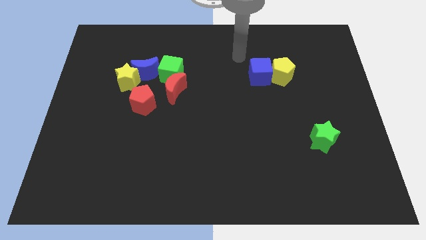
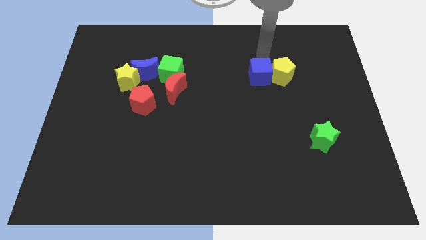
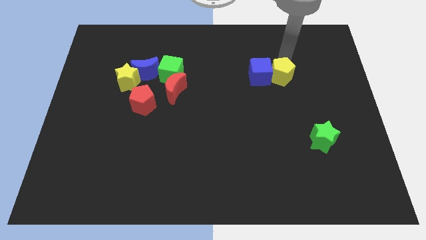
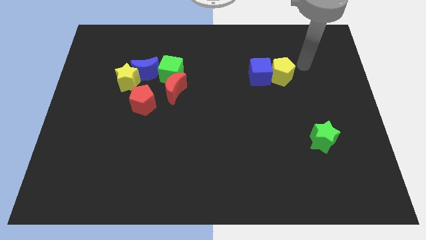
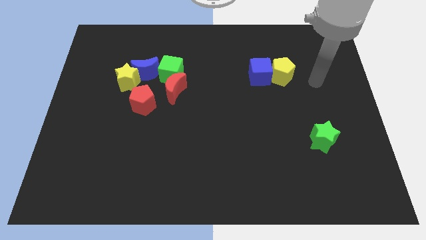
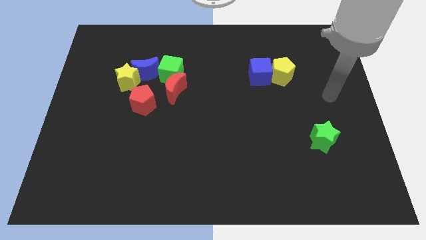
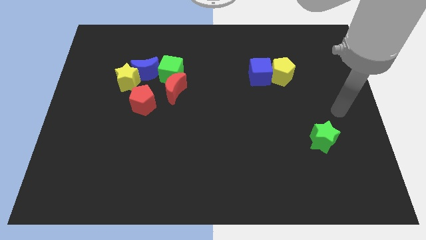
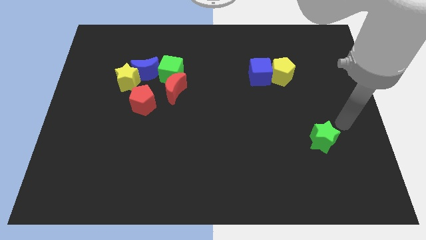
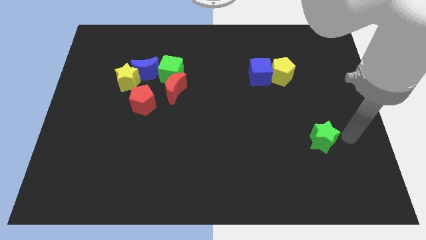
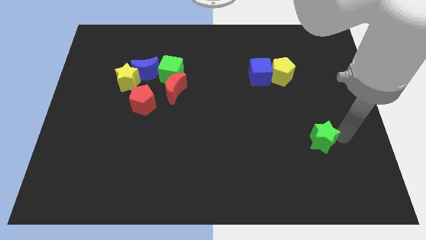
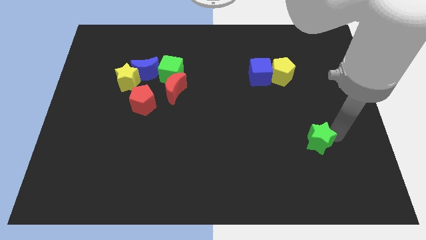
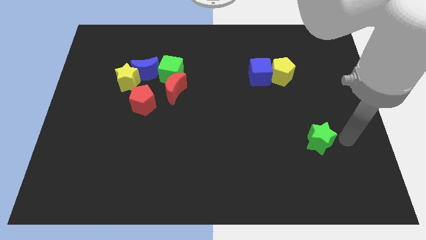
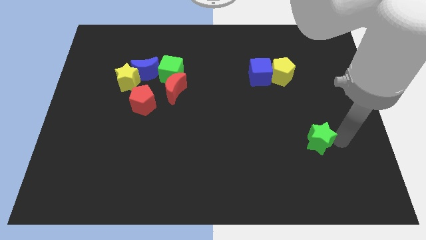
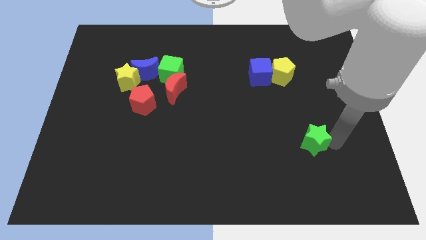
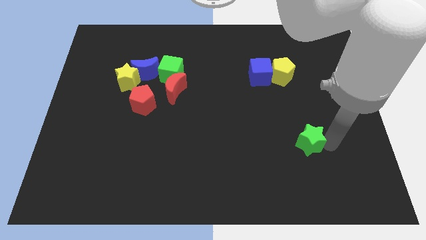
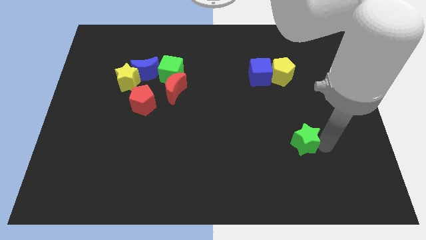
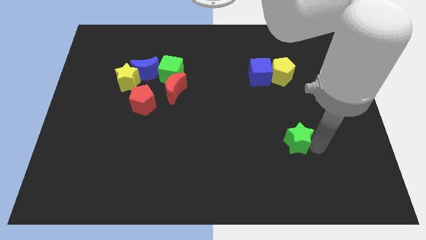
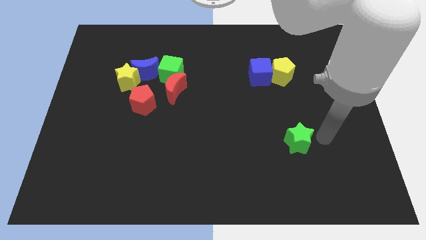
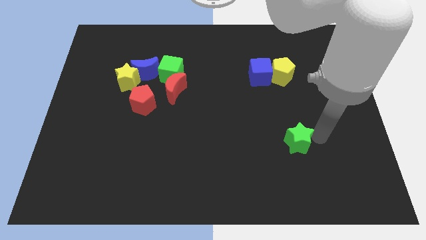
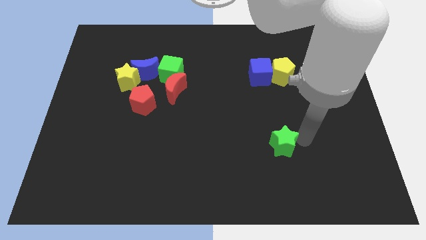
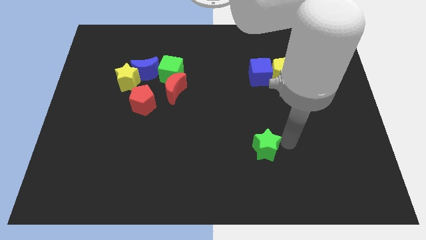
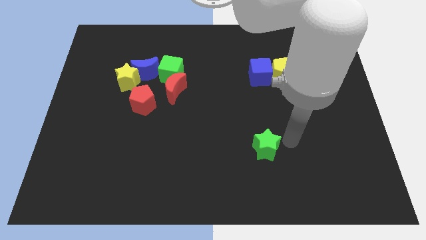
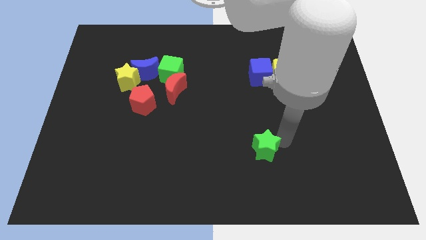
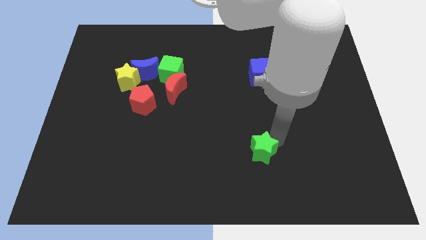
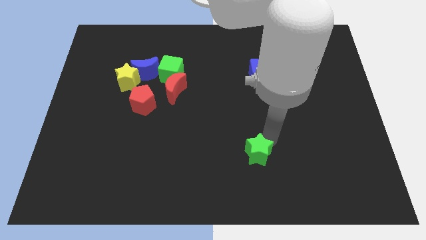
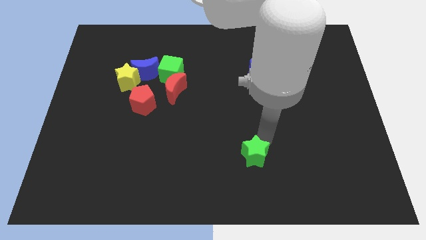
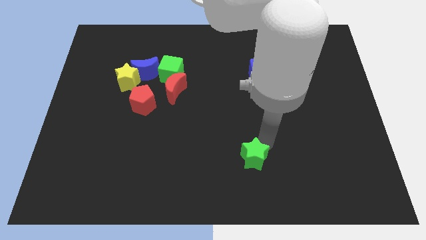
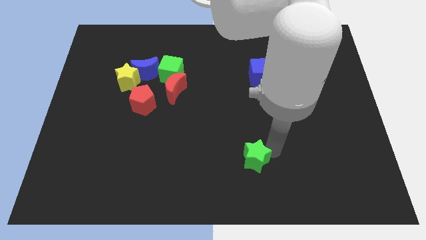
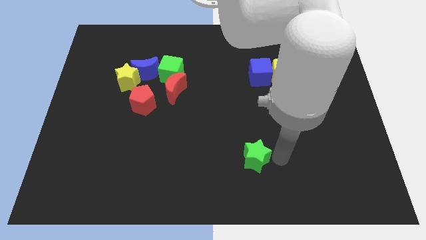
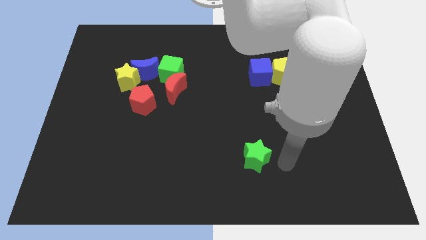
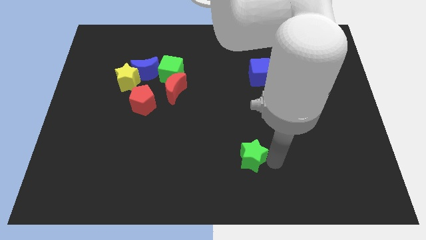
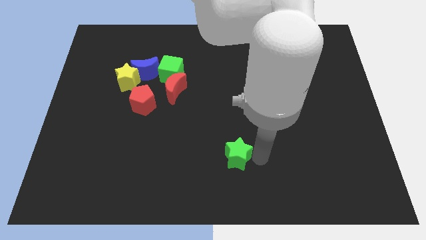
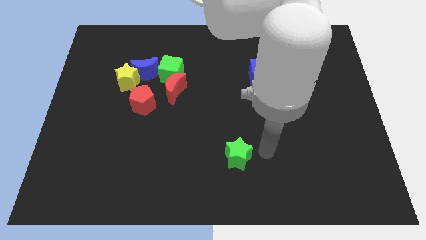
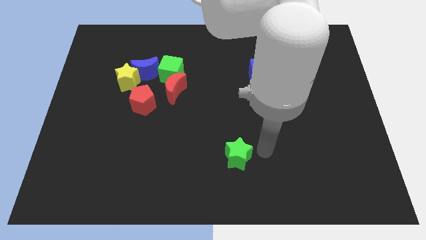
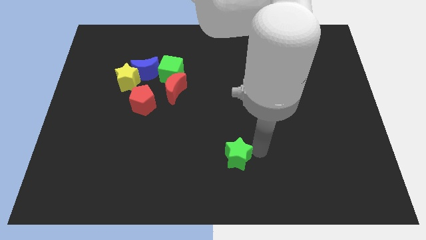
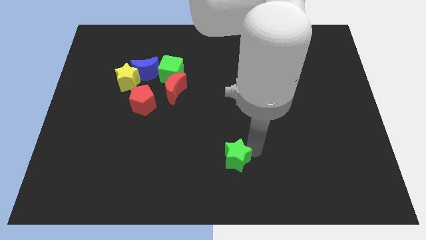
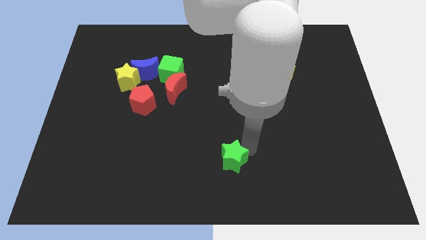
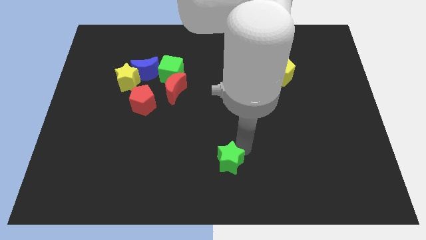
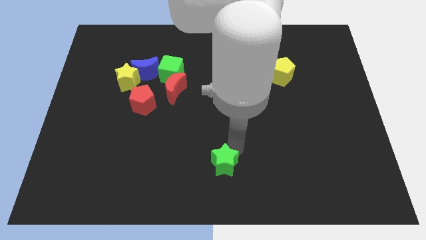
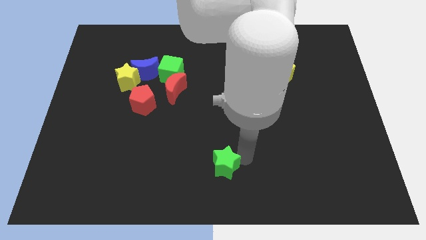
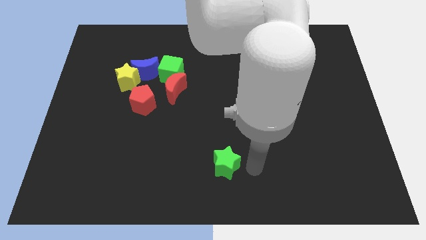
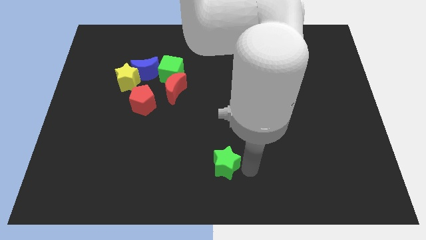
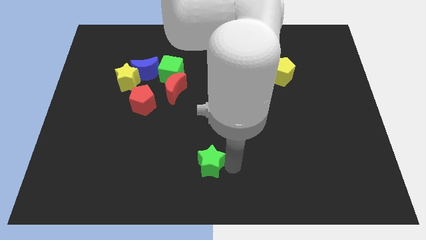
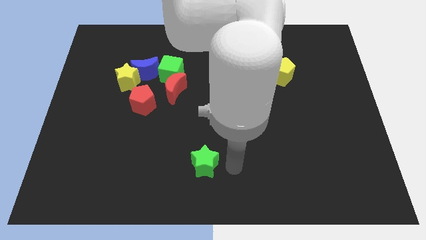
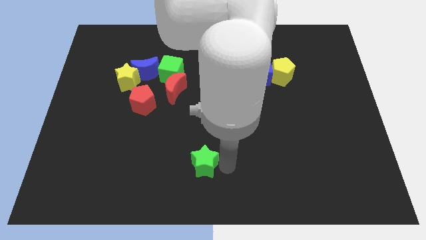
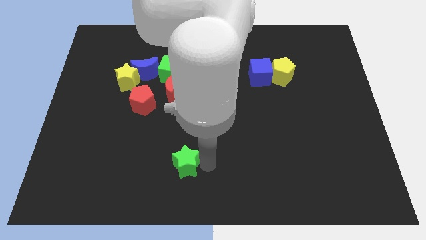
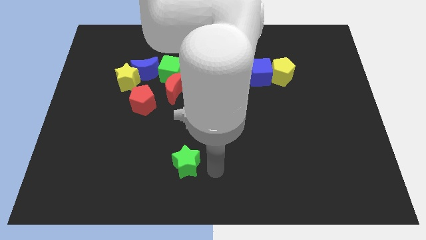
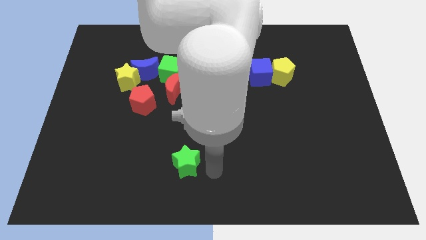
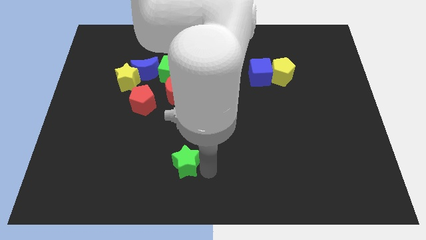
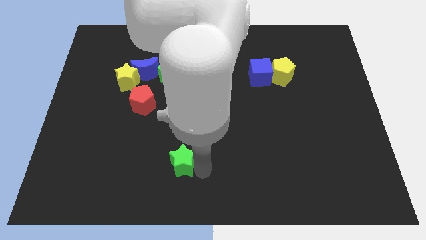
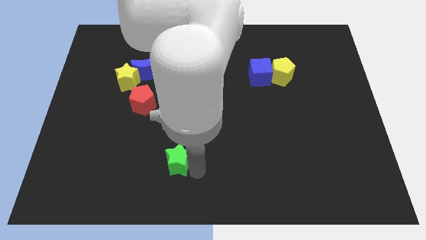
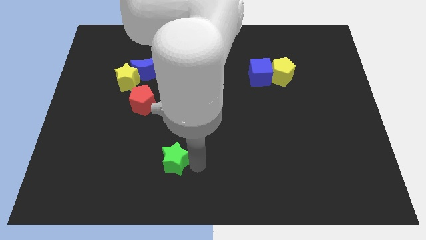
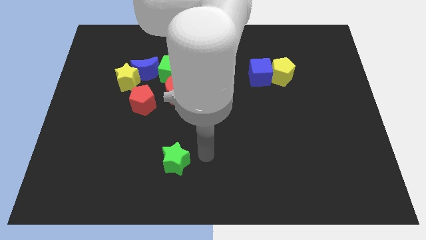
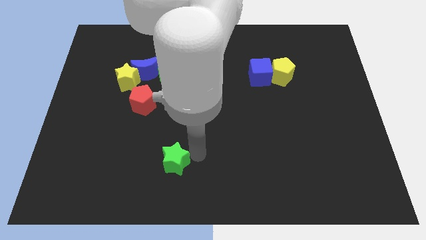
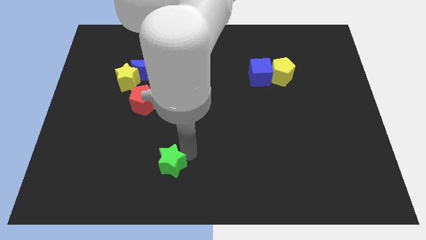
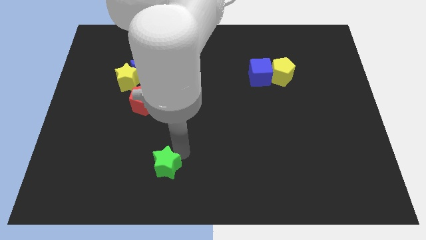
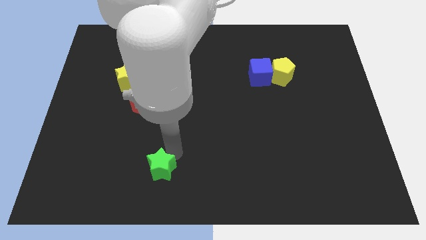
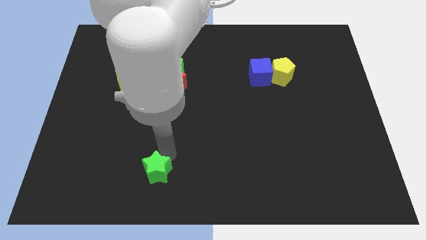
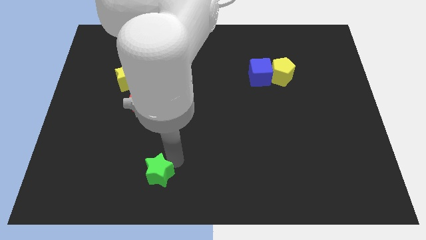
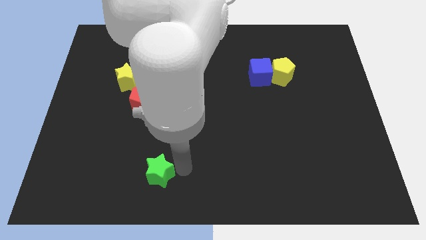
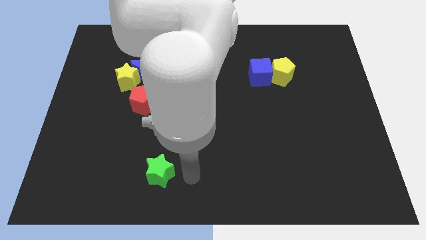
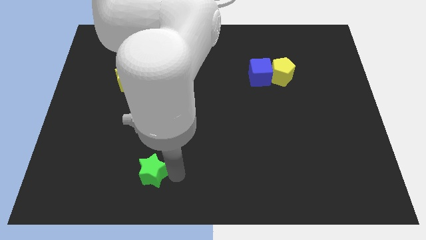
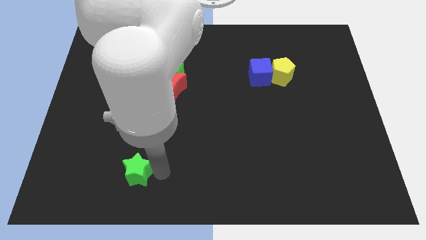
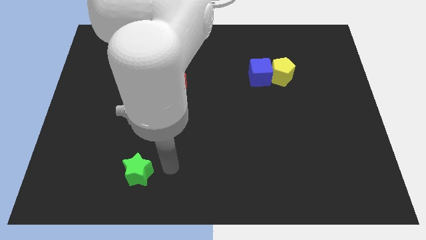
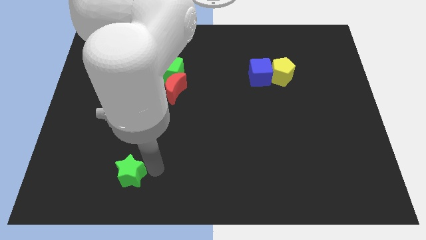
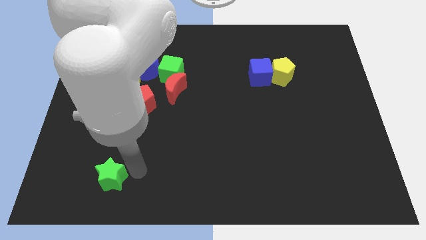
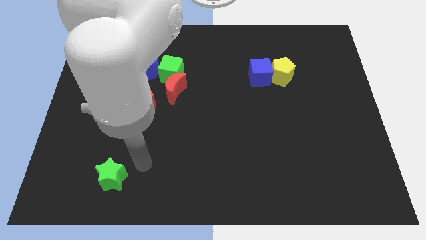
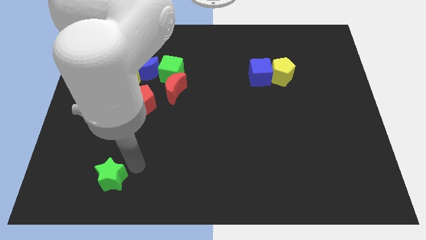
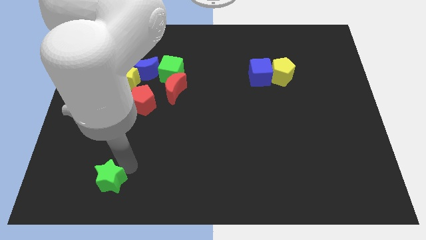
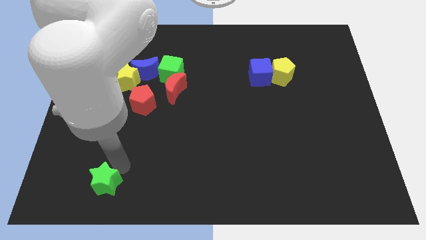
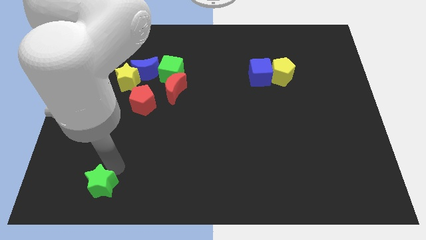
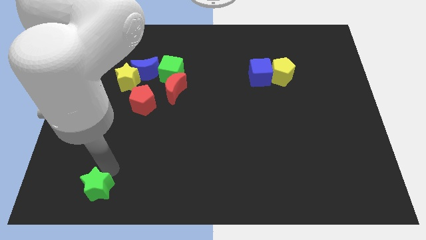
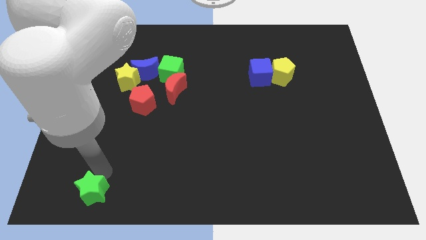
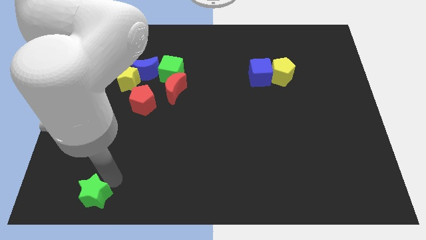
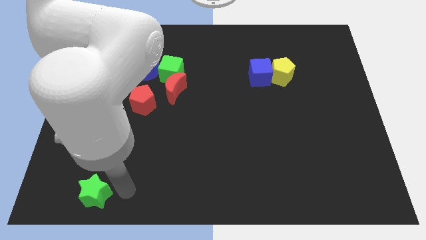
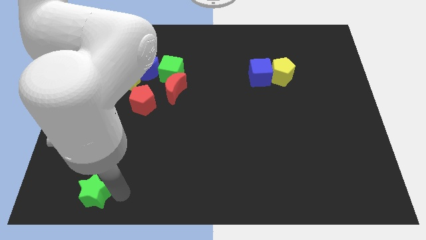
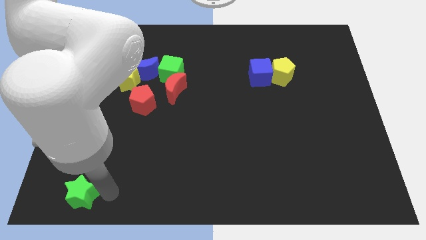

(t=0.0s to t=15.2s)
put the green star to the bottom left
